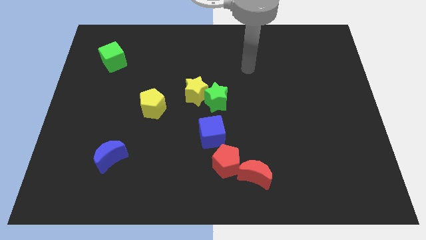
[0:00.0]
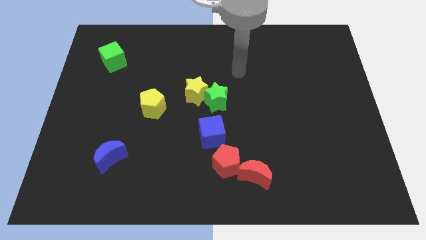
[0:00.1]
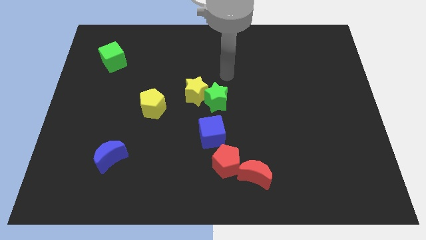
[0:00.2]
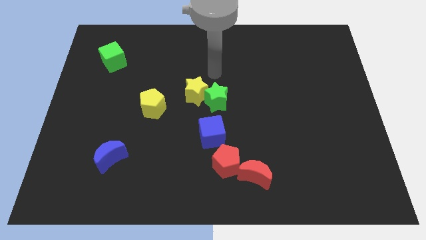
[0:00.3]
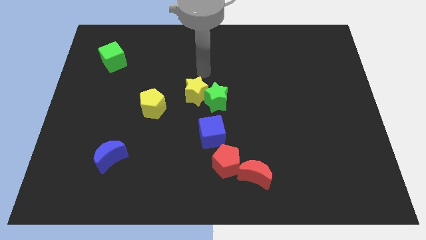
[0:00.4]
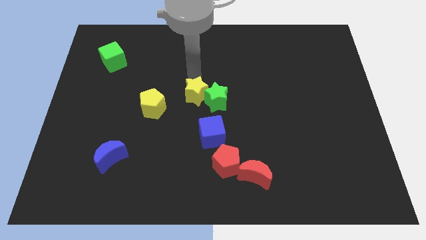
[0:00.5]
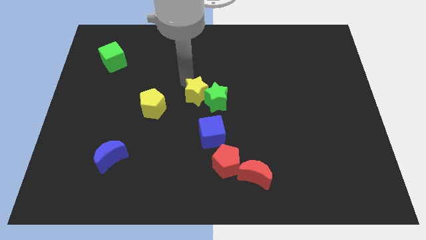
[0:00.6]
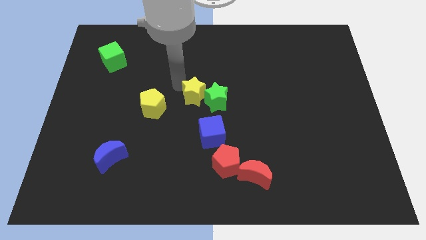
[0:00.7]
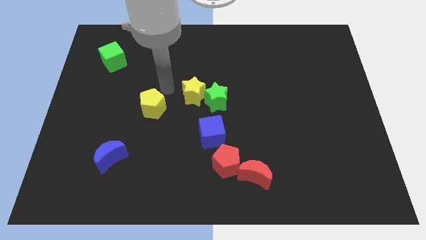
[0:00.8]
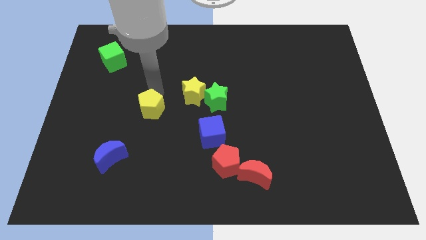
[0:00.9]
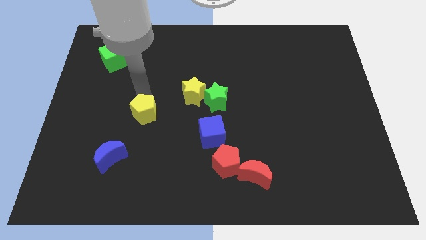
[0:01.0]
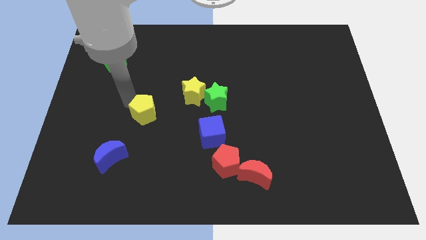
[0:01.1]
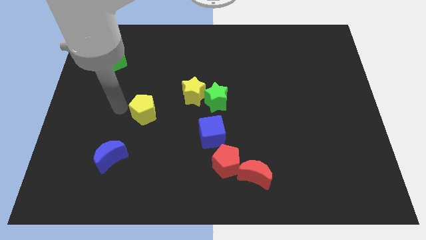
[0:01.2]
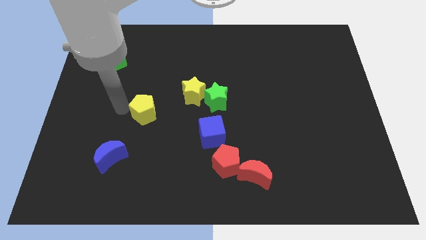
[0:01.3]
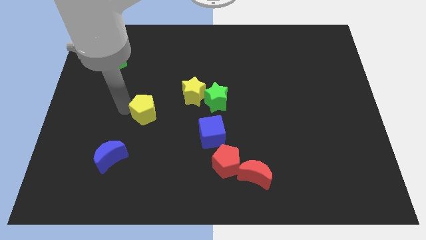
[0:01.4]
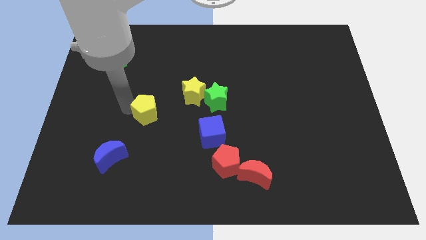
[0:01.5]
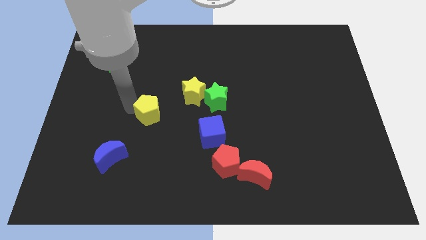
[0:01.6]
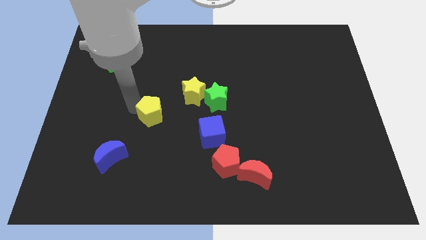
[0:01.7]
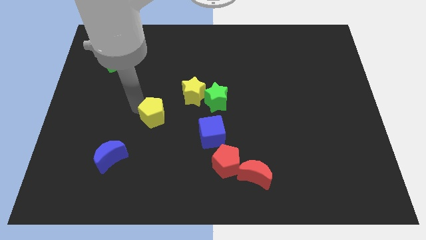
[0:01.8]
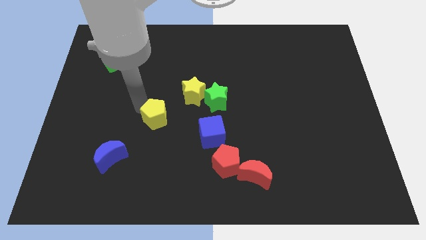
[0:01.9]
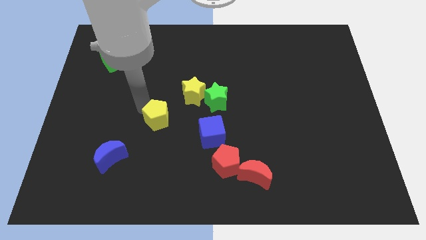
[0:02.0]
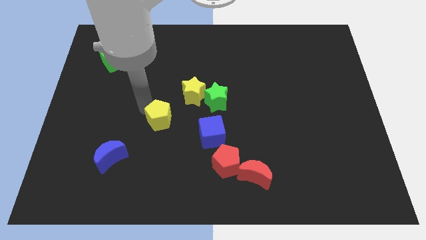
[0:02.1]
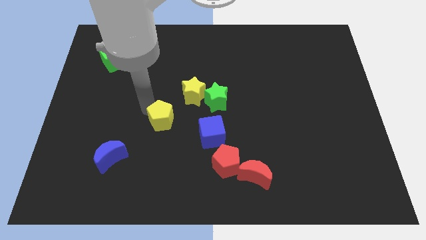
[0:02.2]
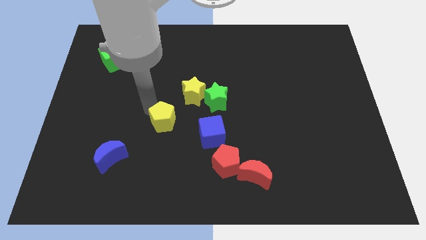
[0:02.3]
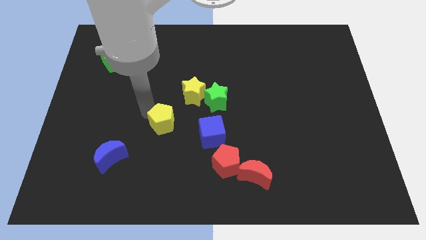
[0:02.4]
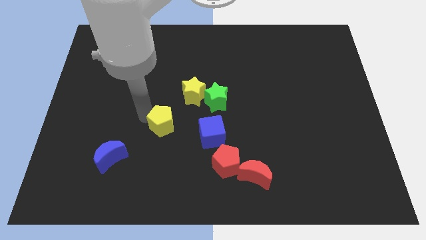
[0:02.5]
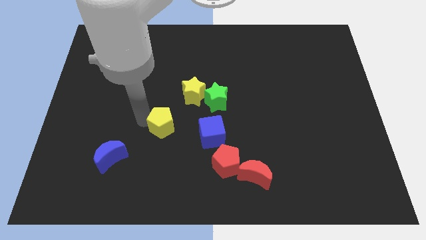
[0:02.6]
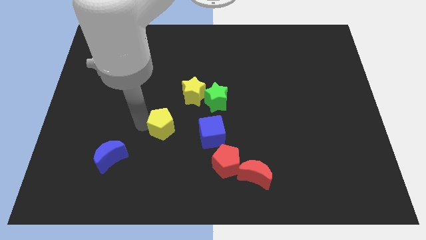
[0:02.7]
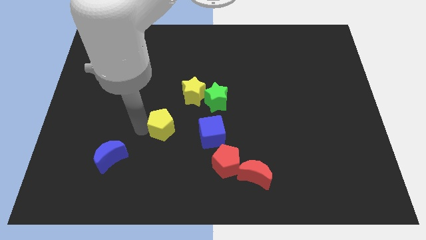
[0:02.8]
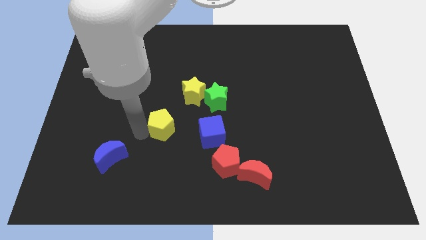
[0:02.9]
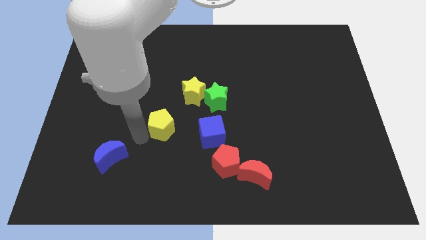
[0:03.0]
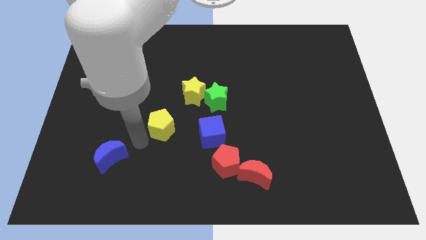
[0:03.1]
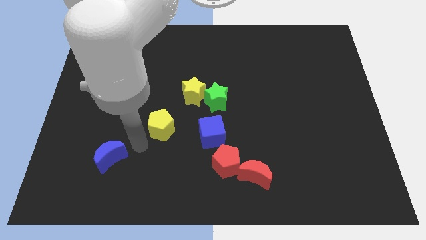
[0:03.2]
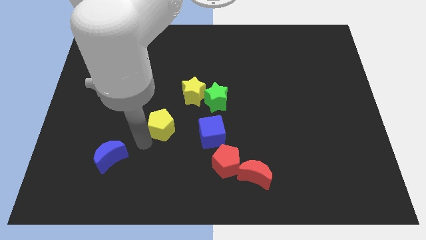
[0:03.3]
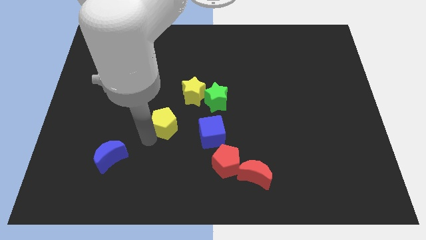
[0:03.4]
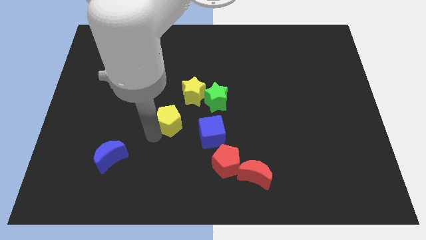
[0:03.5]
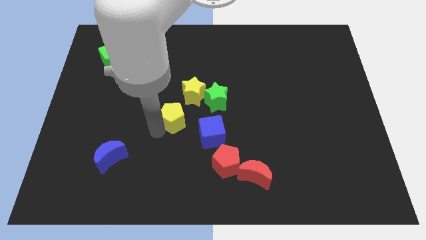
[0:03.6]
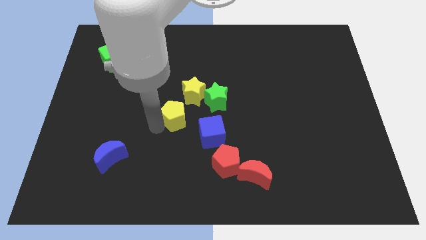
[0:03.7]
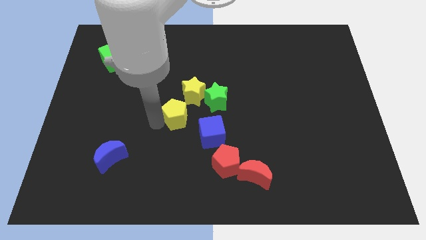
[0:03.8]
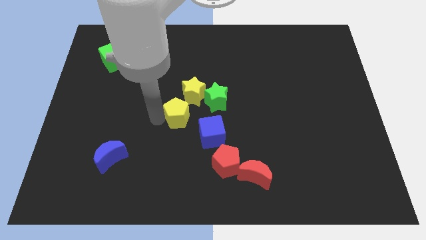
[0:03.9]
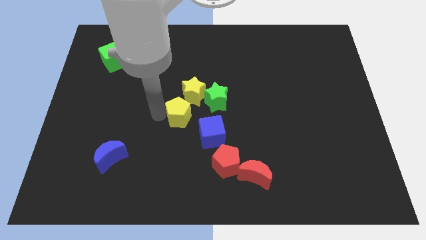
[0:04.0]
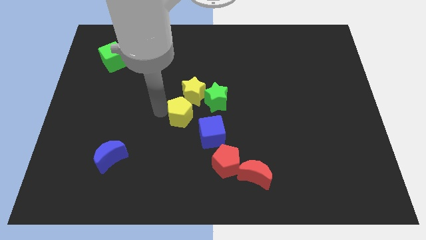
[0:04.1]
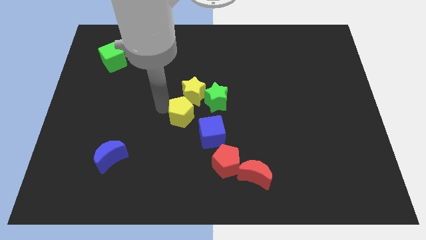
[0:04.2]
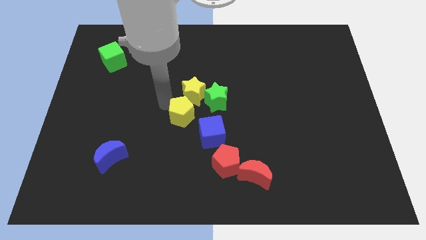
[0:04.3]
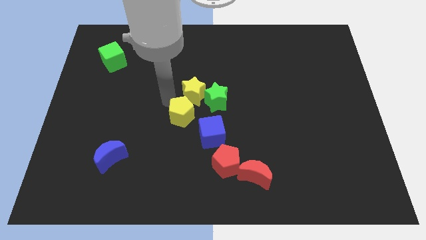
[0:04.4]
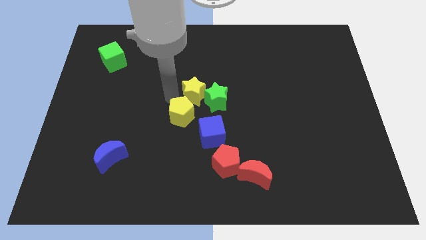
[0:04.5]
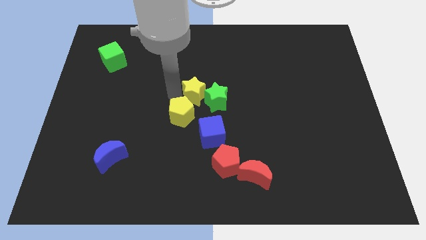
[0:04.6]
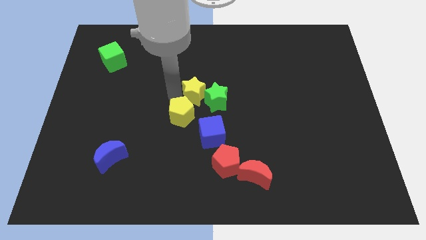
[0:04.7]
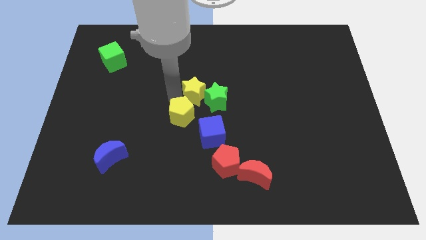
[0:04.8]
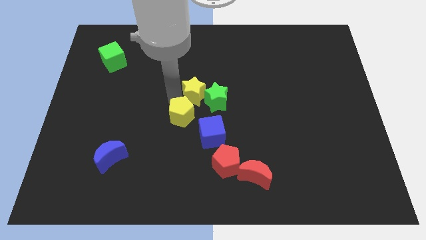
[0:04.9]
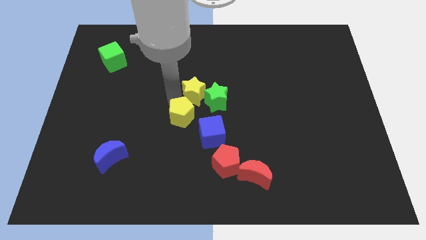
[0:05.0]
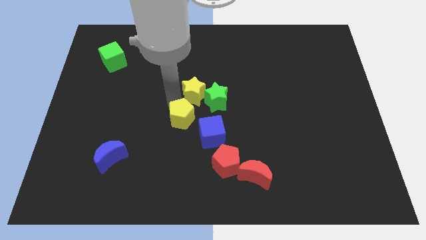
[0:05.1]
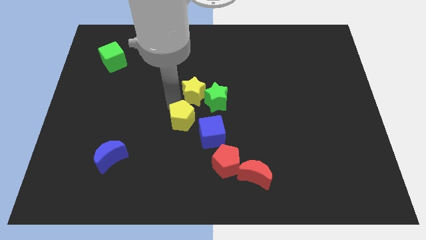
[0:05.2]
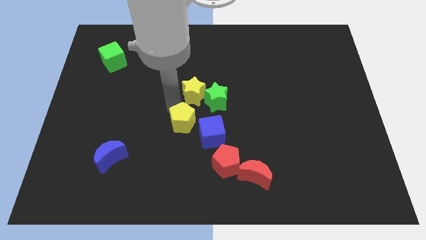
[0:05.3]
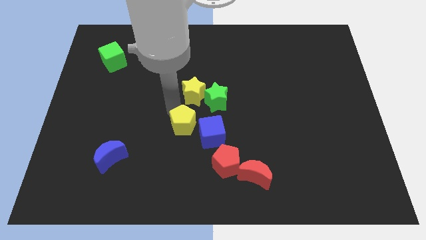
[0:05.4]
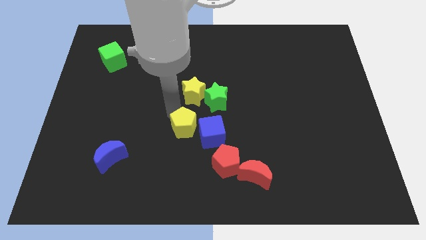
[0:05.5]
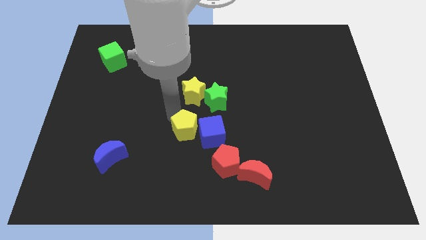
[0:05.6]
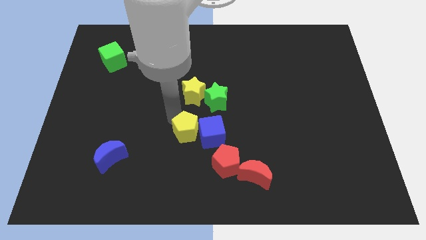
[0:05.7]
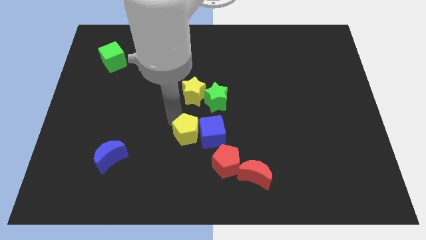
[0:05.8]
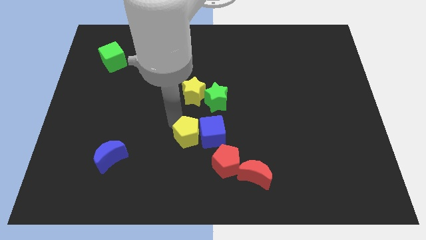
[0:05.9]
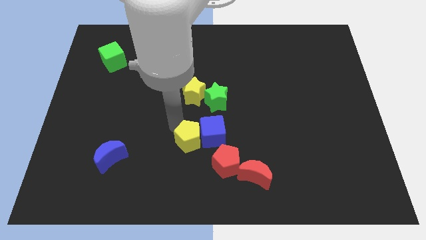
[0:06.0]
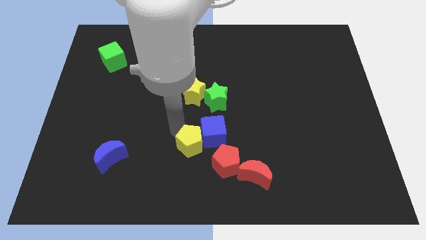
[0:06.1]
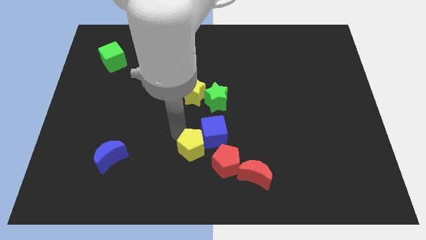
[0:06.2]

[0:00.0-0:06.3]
put the yellow pentagon to the bottom side of the blue cube

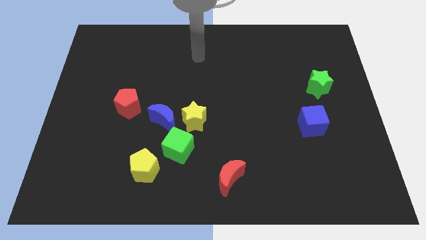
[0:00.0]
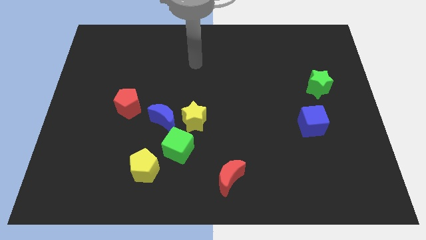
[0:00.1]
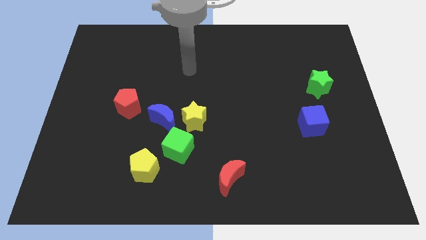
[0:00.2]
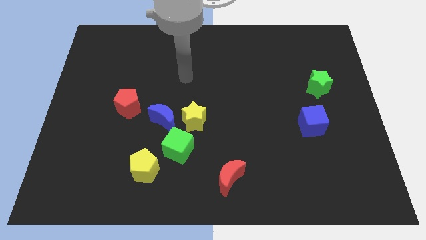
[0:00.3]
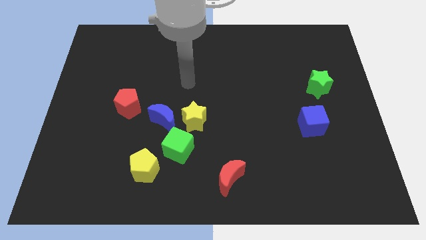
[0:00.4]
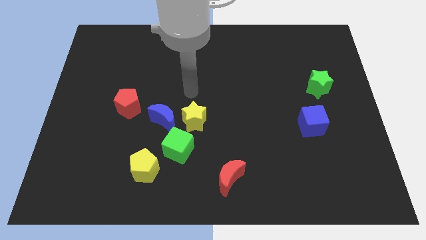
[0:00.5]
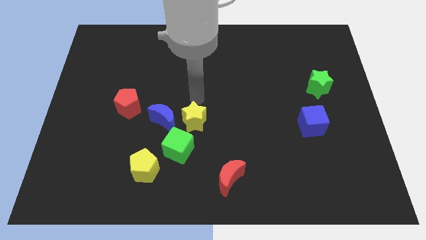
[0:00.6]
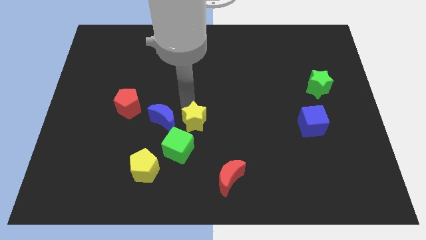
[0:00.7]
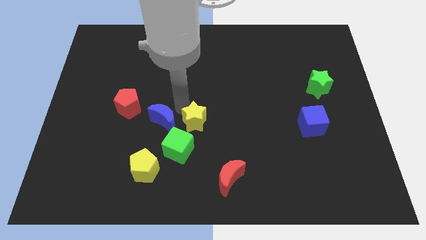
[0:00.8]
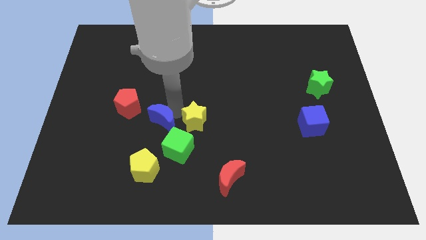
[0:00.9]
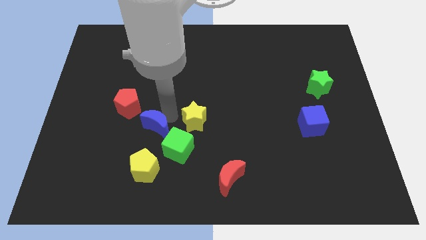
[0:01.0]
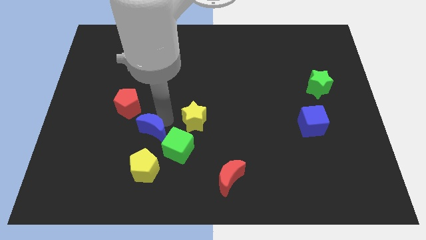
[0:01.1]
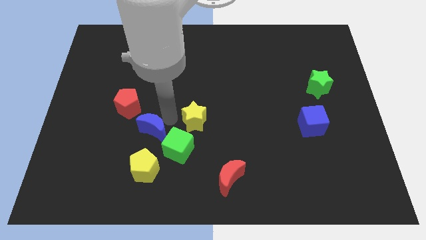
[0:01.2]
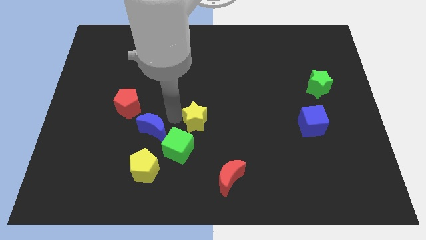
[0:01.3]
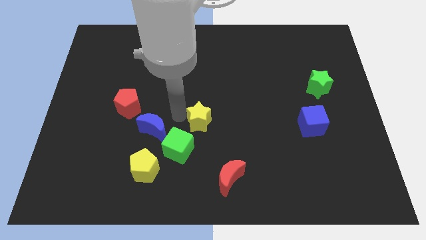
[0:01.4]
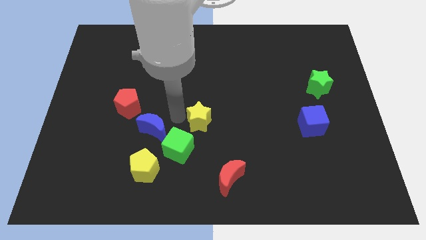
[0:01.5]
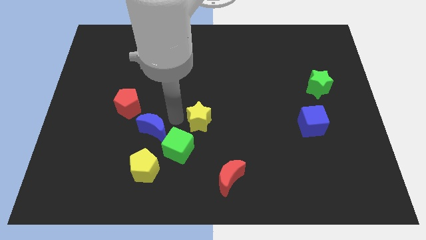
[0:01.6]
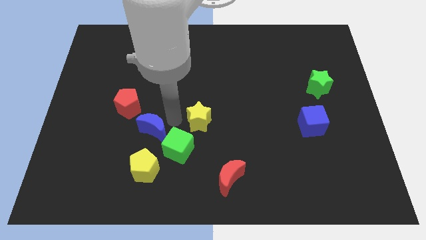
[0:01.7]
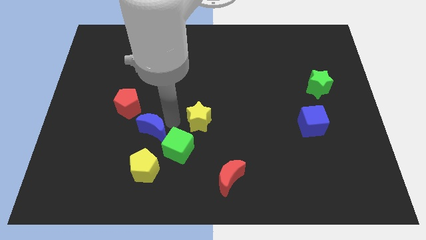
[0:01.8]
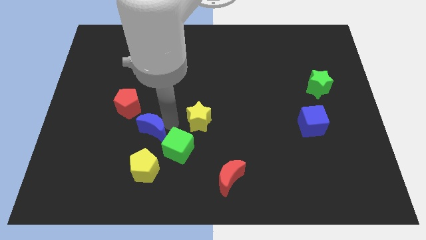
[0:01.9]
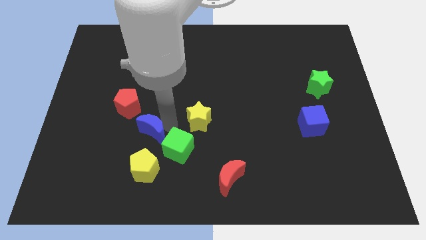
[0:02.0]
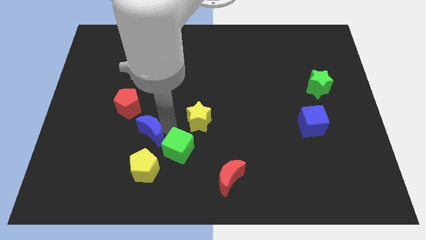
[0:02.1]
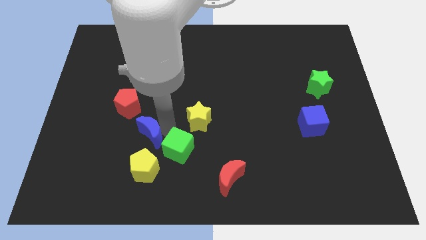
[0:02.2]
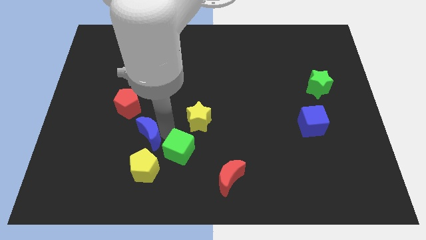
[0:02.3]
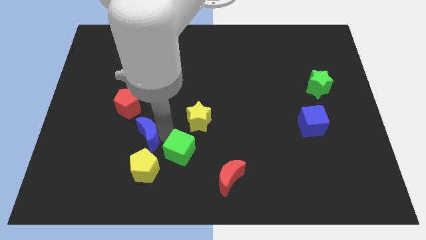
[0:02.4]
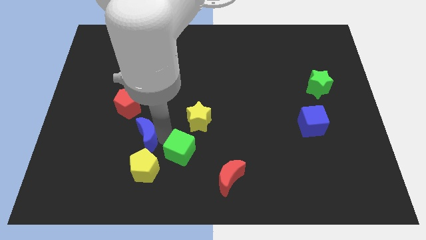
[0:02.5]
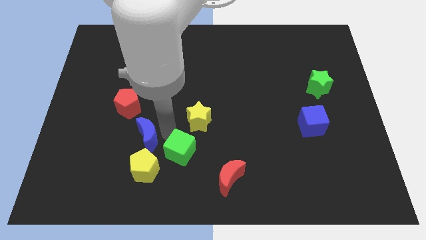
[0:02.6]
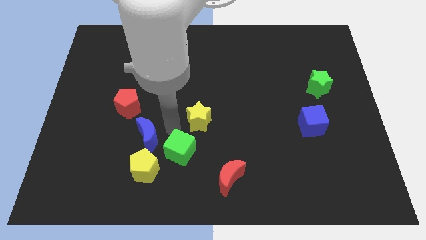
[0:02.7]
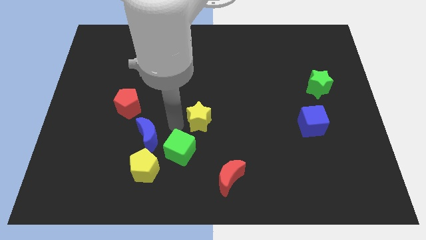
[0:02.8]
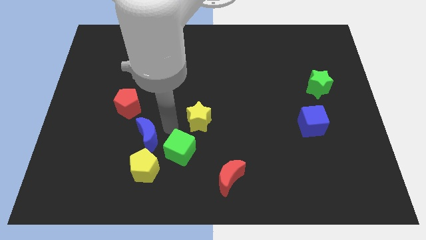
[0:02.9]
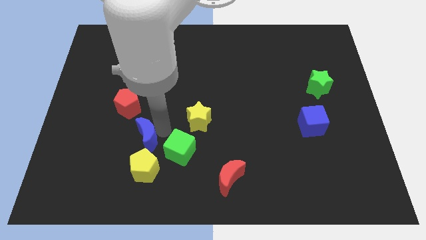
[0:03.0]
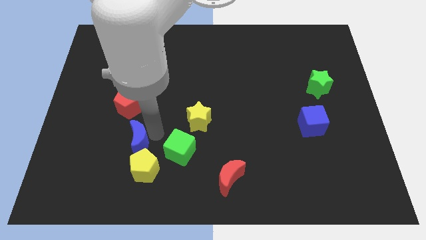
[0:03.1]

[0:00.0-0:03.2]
move the blue moon to the top left side of the yellow pentagon
